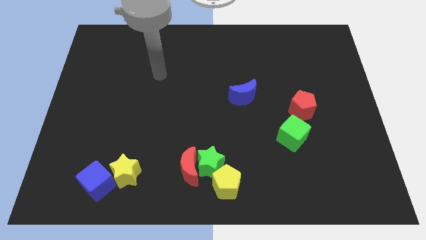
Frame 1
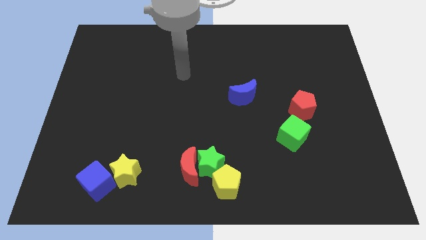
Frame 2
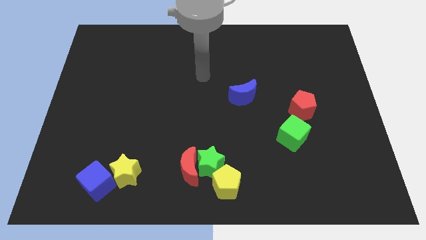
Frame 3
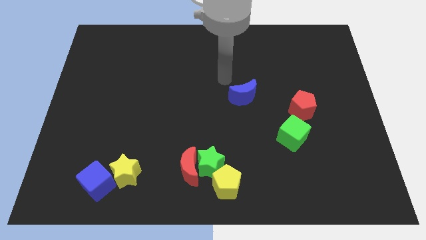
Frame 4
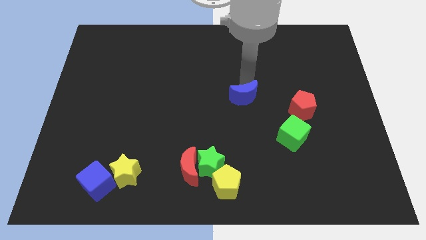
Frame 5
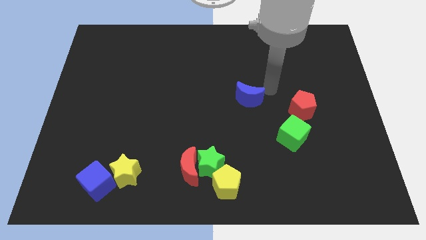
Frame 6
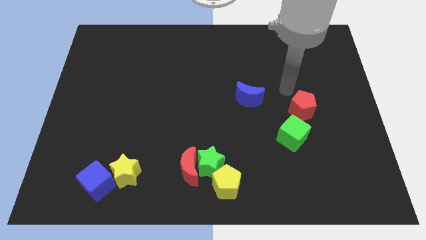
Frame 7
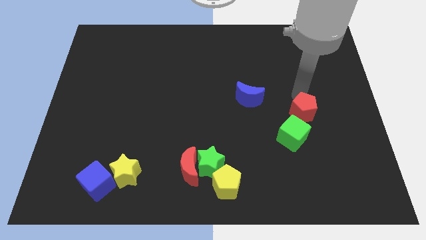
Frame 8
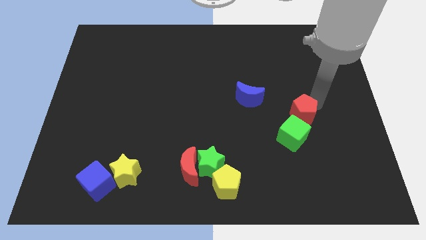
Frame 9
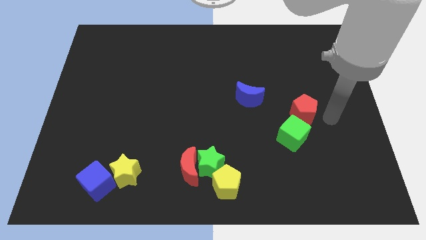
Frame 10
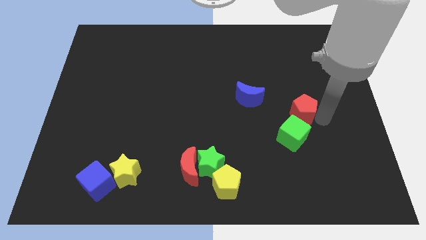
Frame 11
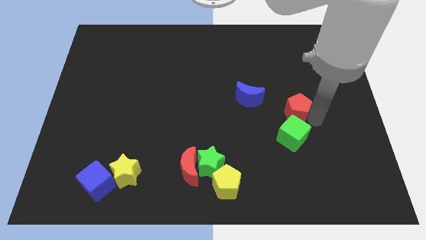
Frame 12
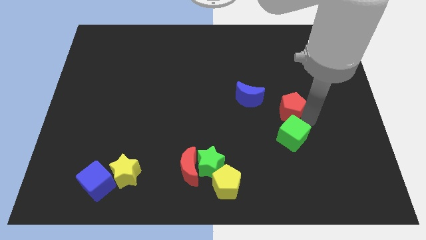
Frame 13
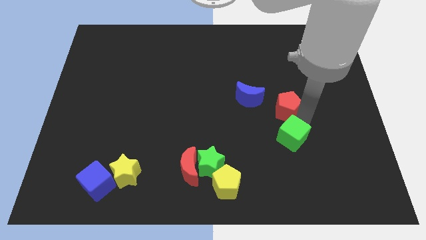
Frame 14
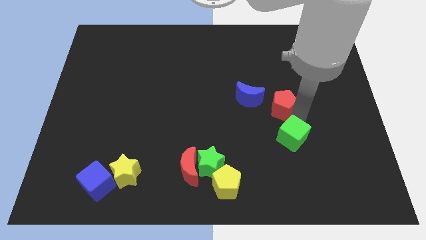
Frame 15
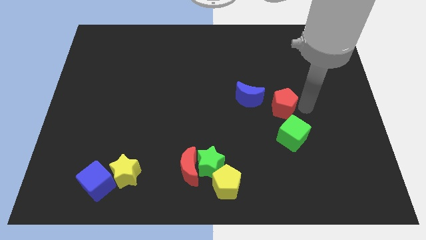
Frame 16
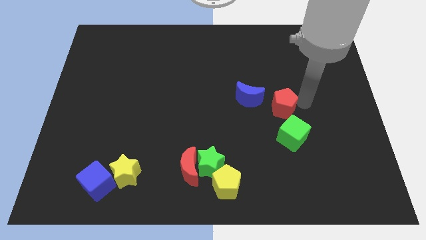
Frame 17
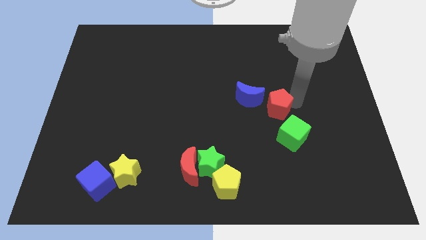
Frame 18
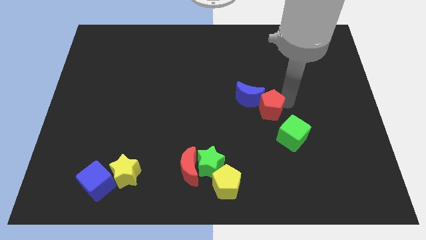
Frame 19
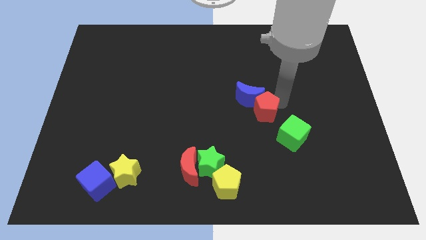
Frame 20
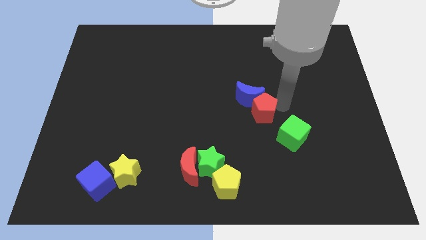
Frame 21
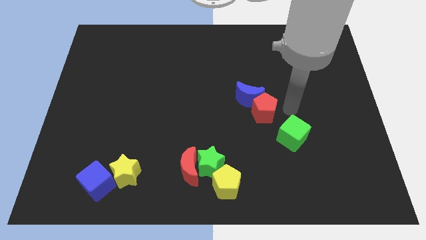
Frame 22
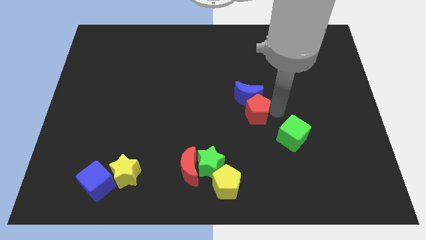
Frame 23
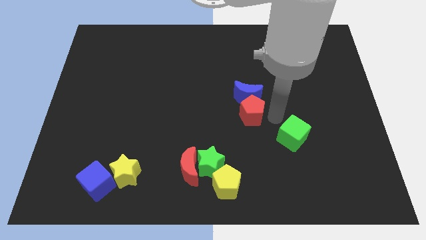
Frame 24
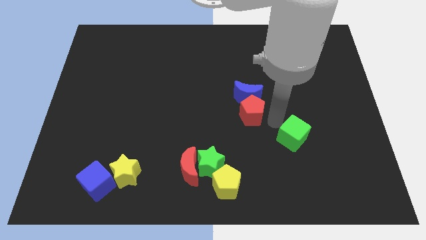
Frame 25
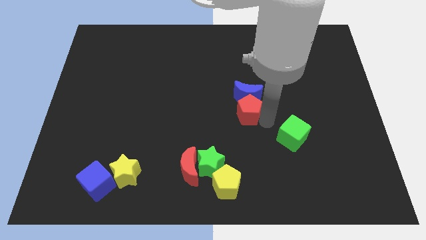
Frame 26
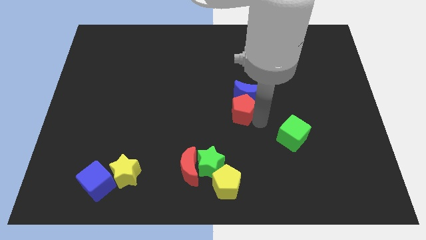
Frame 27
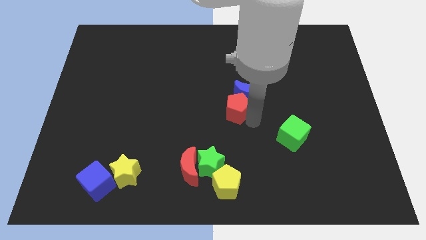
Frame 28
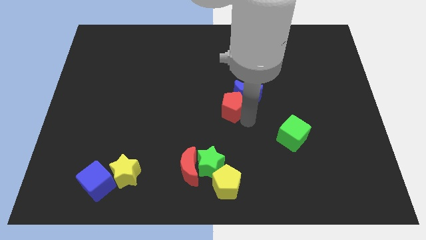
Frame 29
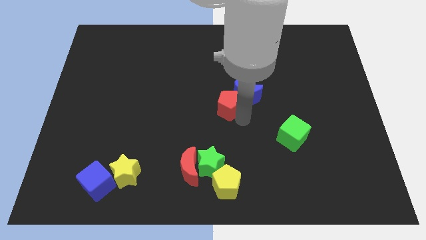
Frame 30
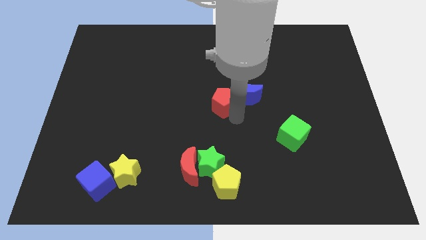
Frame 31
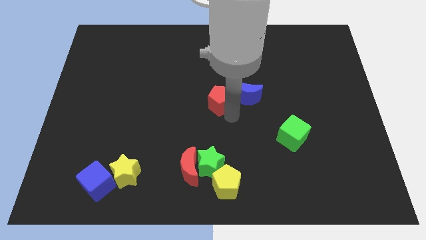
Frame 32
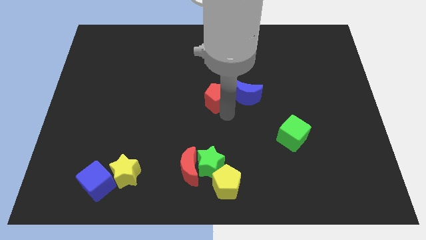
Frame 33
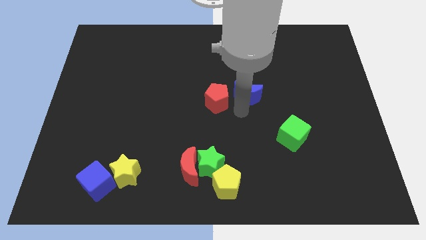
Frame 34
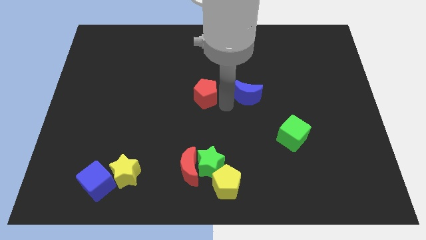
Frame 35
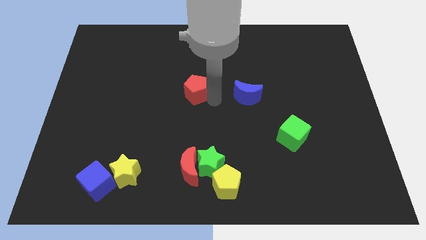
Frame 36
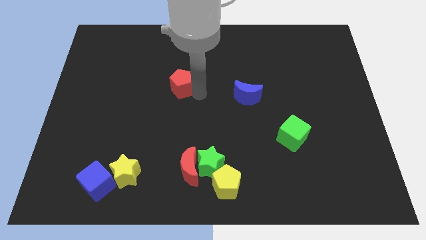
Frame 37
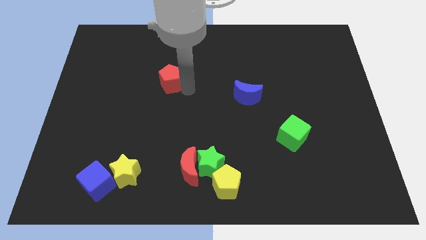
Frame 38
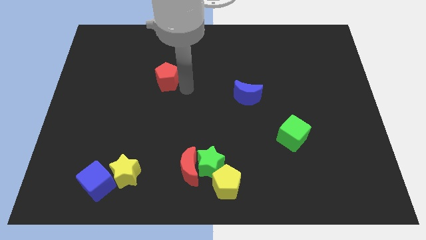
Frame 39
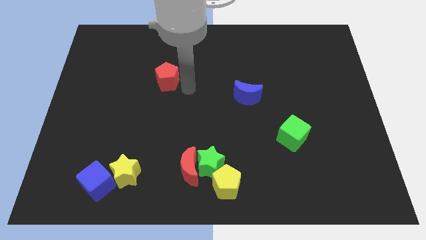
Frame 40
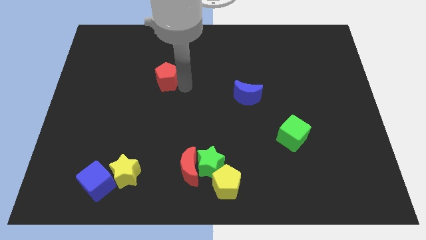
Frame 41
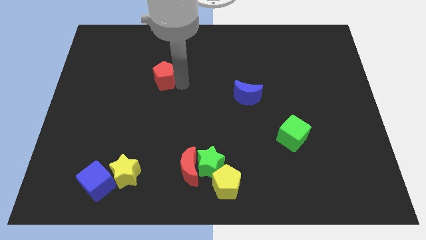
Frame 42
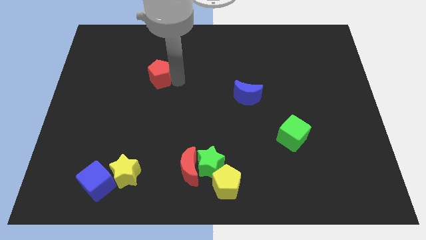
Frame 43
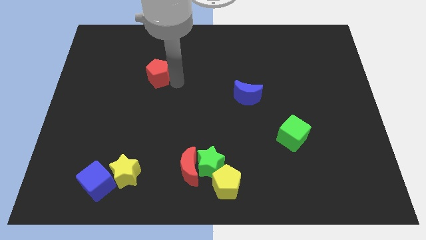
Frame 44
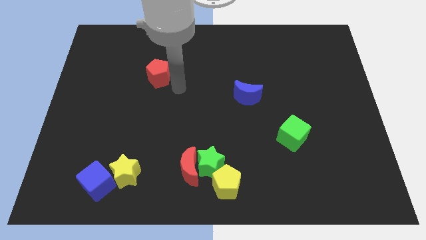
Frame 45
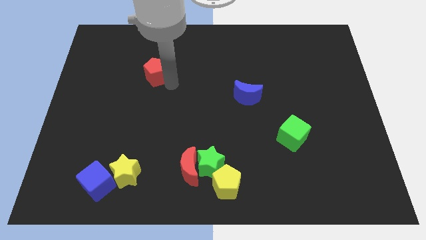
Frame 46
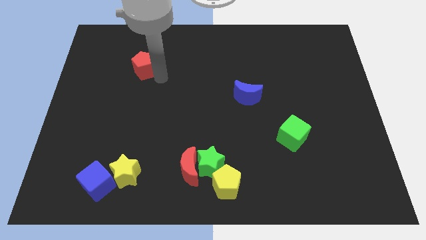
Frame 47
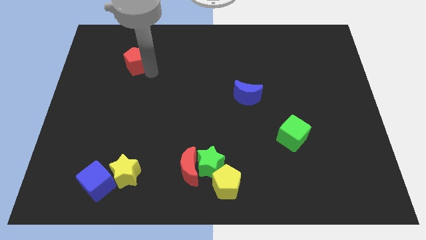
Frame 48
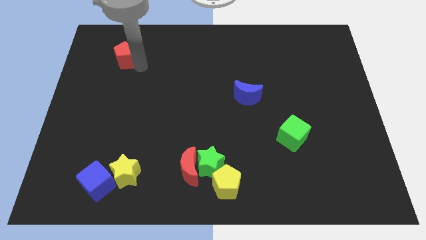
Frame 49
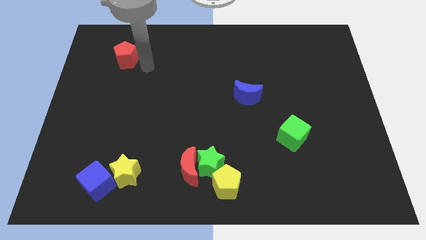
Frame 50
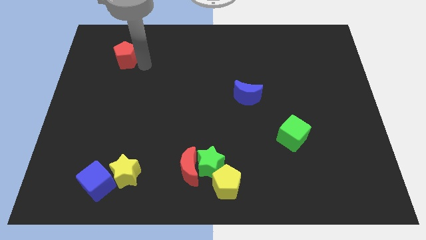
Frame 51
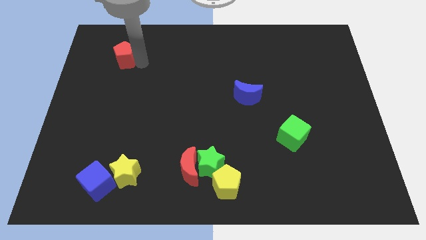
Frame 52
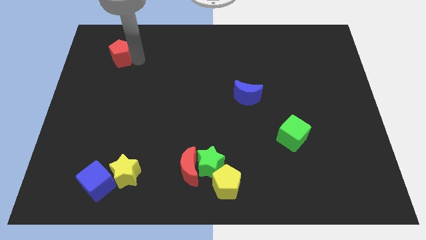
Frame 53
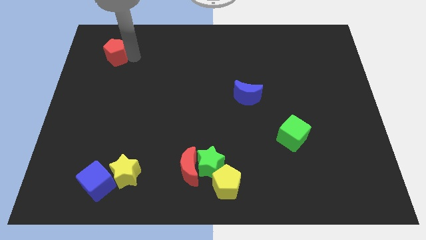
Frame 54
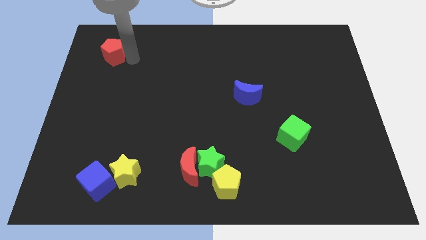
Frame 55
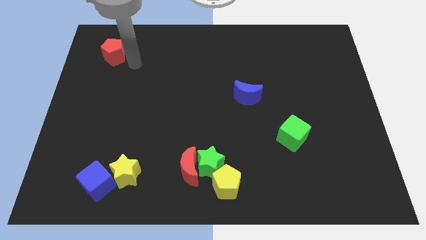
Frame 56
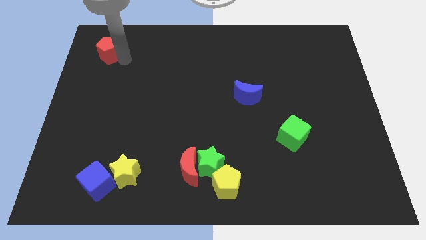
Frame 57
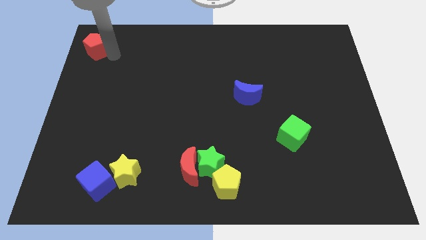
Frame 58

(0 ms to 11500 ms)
put the red pentagon to the top left

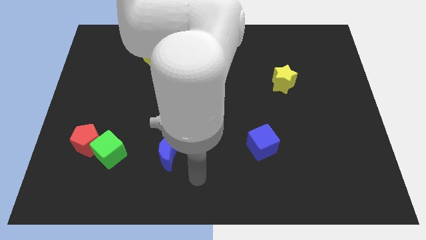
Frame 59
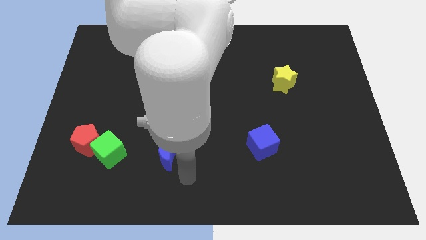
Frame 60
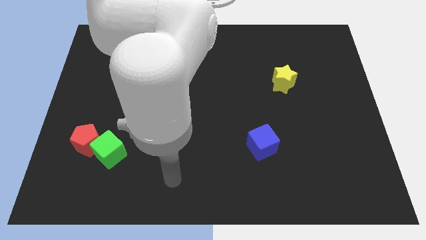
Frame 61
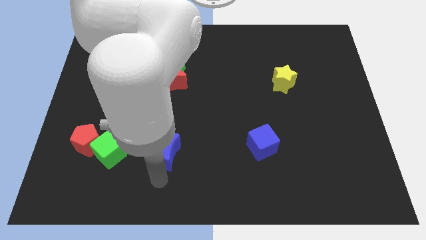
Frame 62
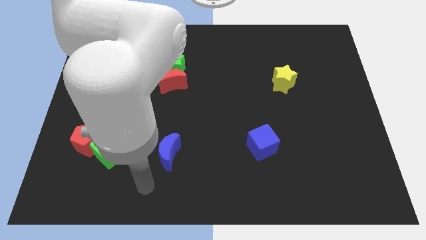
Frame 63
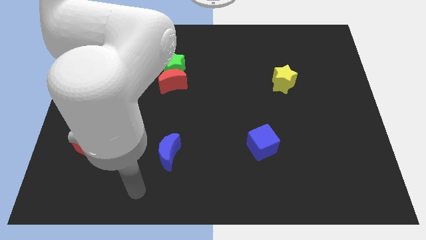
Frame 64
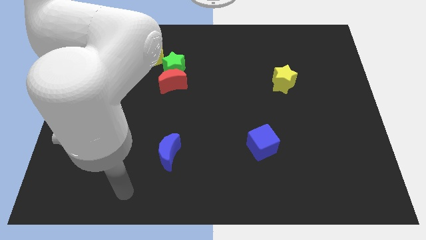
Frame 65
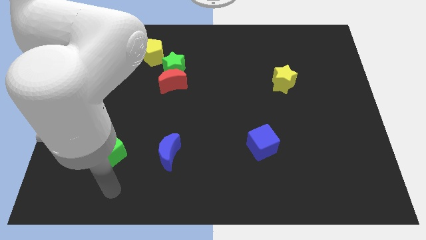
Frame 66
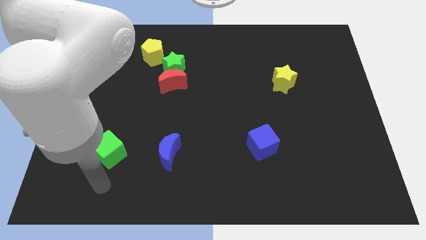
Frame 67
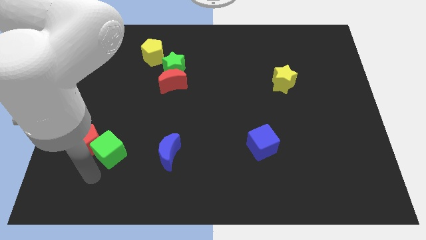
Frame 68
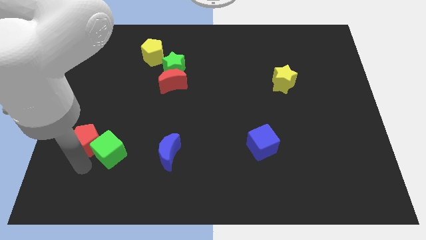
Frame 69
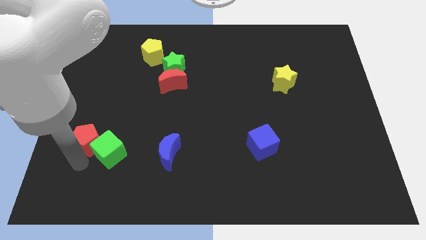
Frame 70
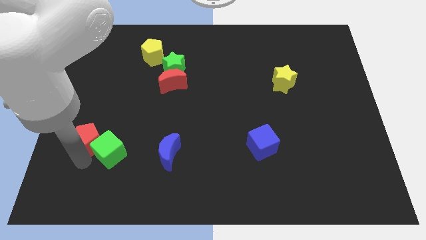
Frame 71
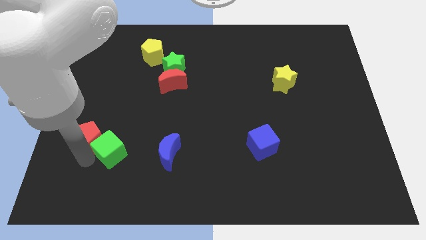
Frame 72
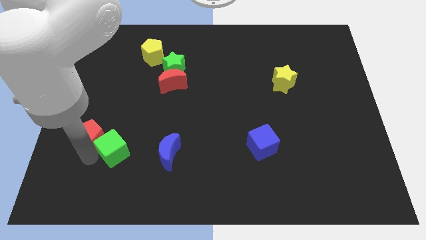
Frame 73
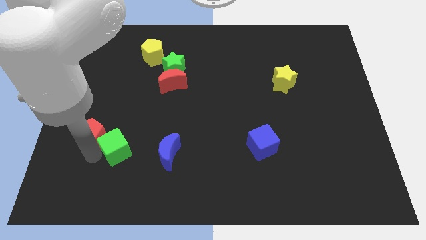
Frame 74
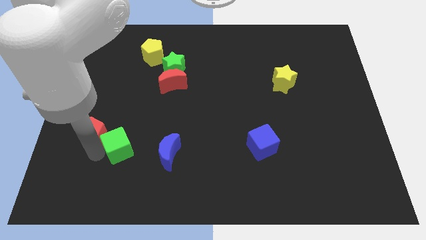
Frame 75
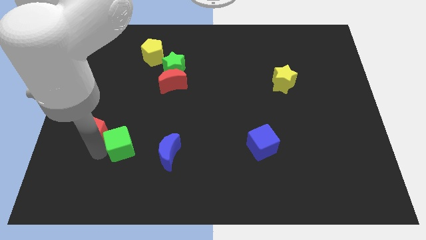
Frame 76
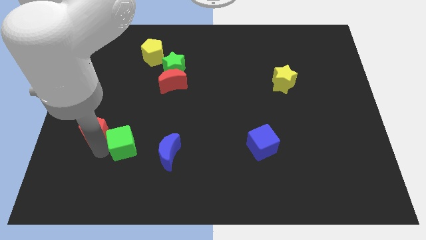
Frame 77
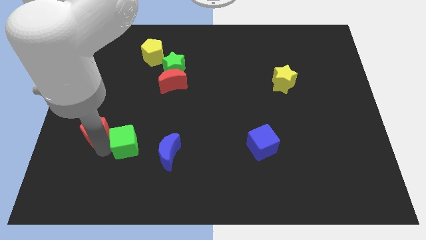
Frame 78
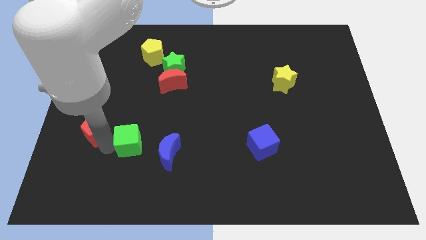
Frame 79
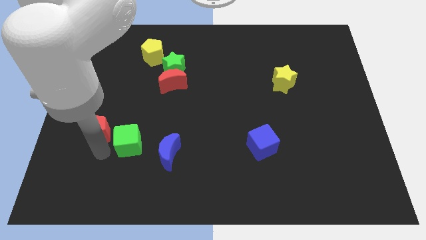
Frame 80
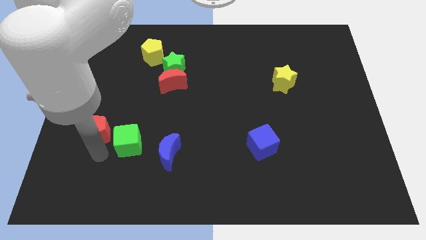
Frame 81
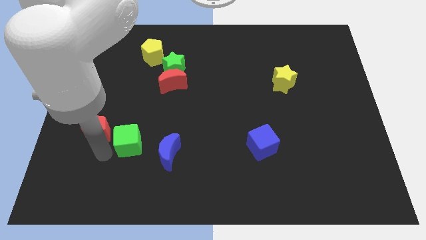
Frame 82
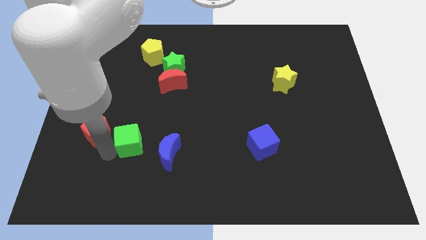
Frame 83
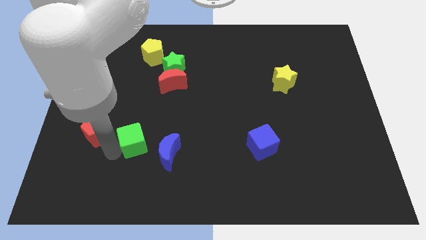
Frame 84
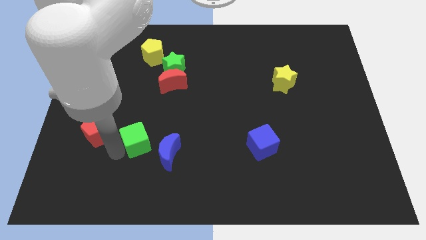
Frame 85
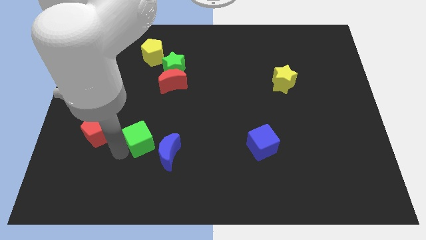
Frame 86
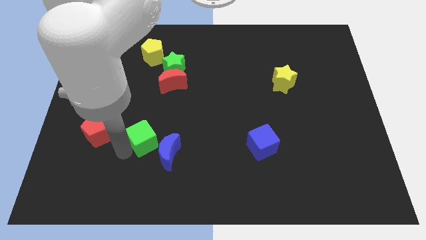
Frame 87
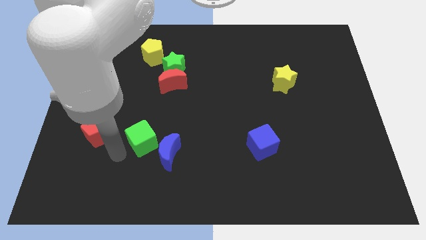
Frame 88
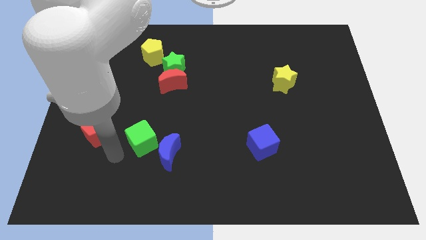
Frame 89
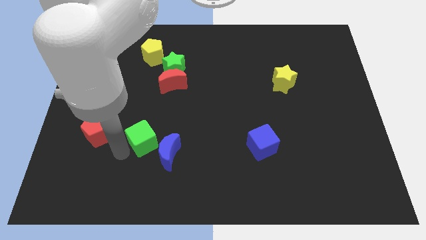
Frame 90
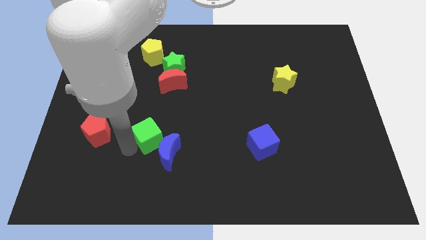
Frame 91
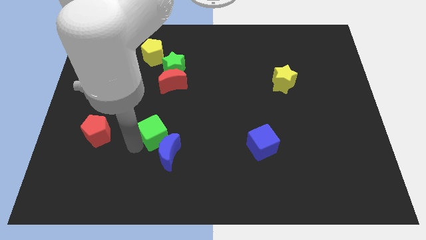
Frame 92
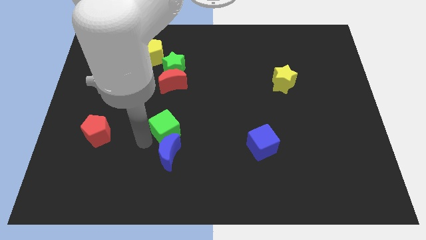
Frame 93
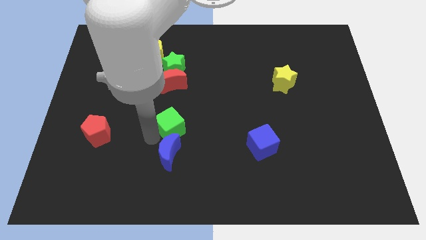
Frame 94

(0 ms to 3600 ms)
slide the green cube to the middle
